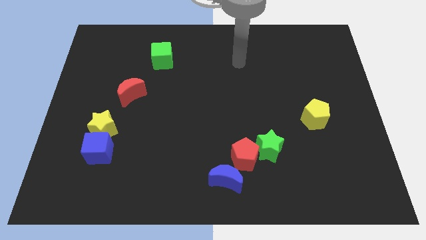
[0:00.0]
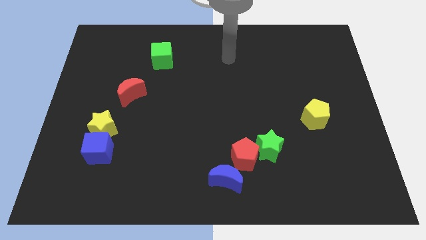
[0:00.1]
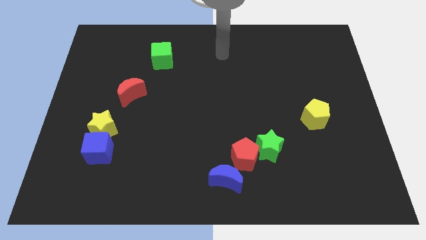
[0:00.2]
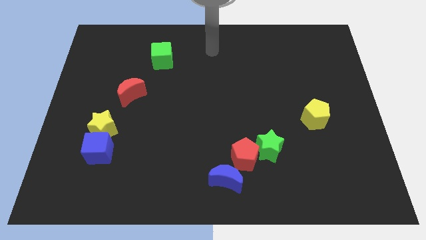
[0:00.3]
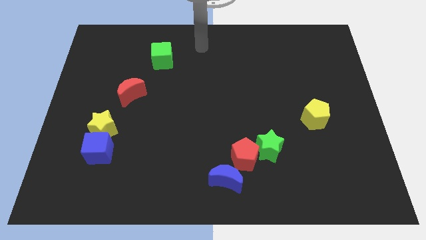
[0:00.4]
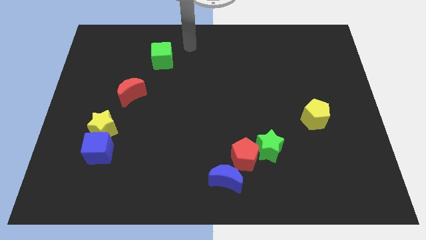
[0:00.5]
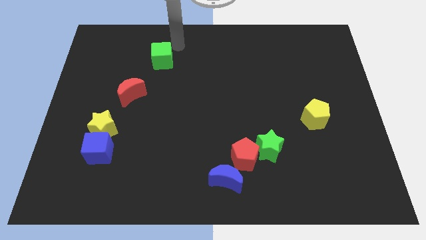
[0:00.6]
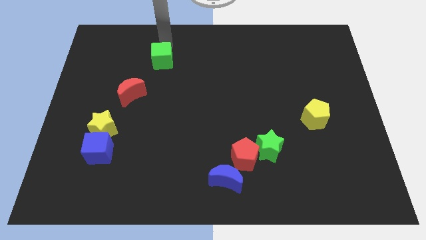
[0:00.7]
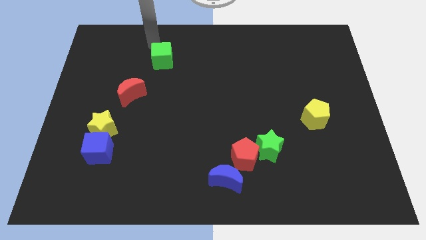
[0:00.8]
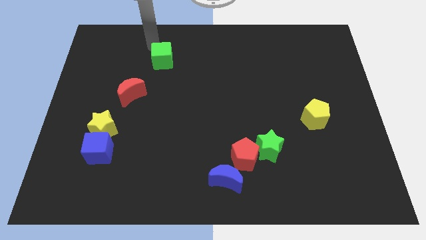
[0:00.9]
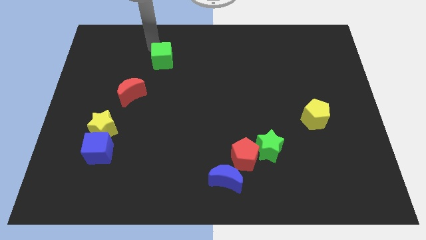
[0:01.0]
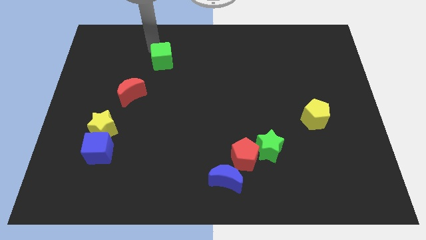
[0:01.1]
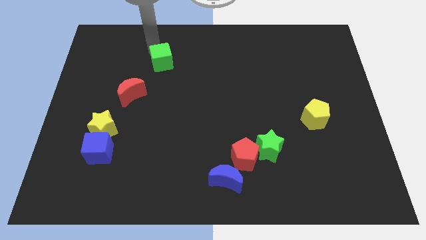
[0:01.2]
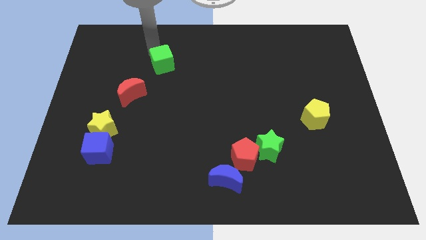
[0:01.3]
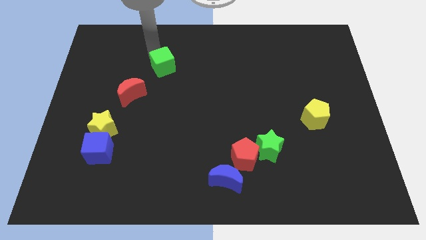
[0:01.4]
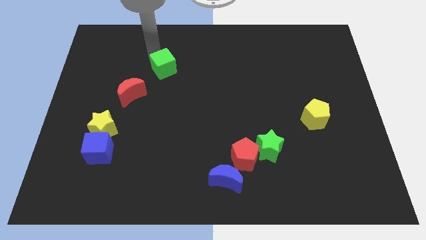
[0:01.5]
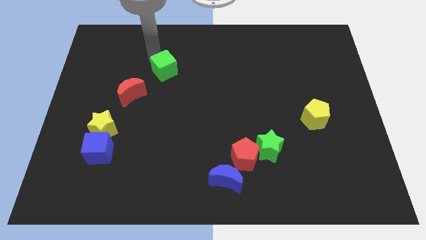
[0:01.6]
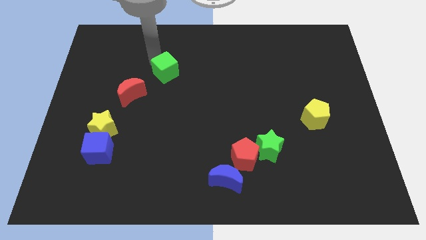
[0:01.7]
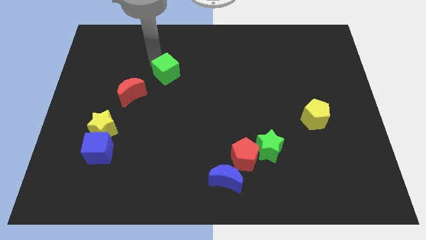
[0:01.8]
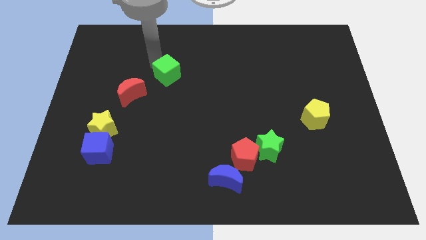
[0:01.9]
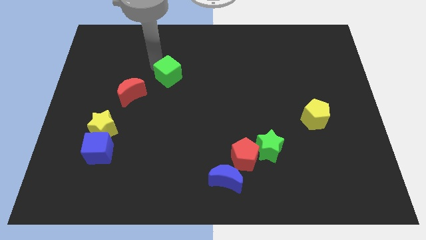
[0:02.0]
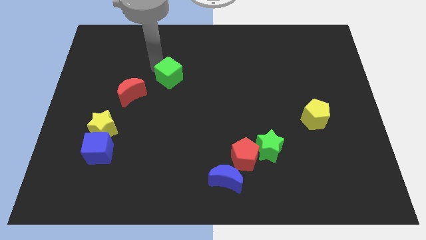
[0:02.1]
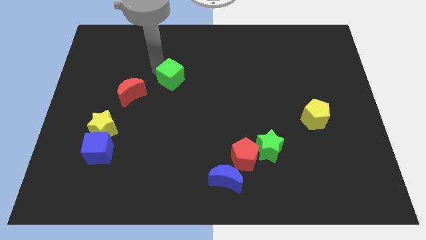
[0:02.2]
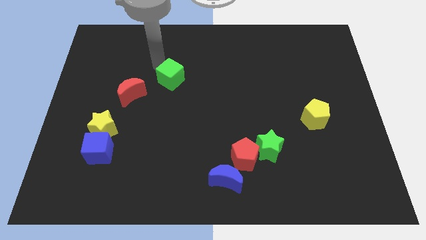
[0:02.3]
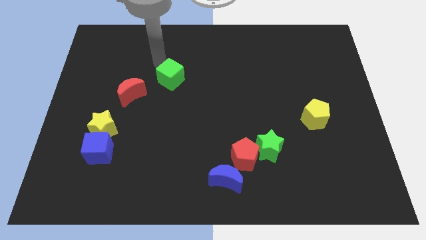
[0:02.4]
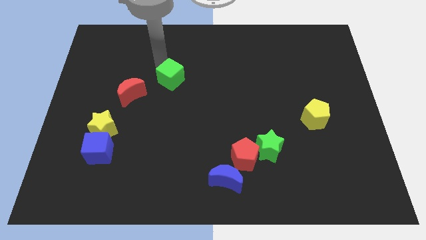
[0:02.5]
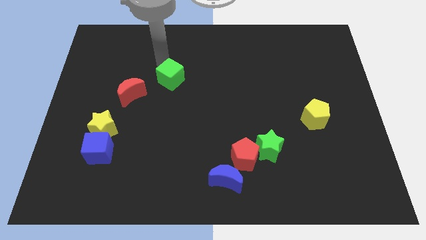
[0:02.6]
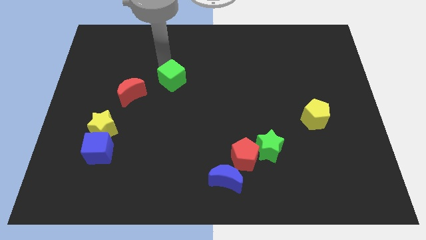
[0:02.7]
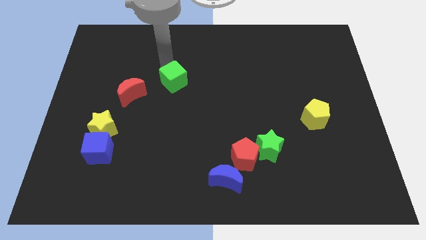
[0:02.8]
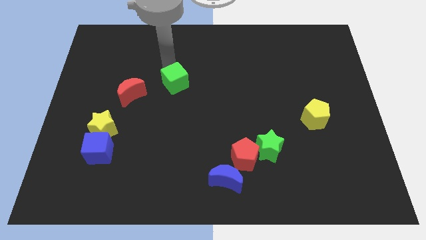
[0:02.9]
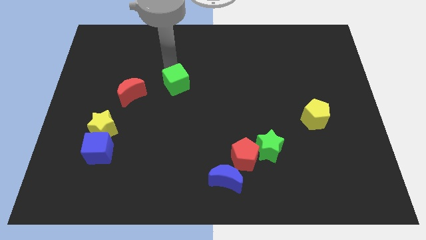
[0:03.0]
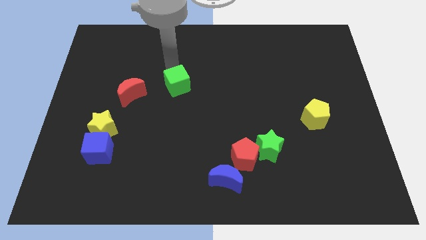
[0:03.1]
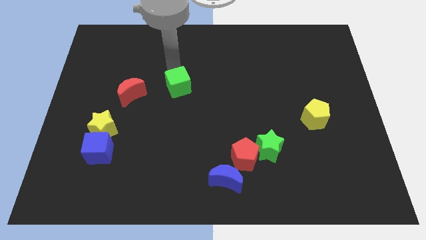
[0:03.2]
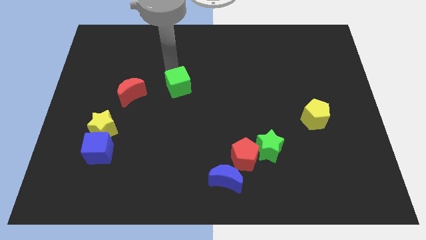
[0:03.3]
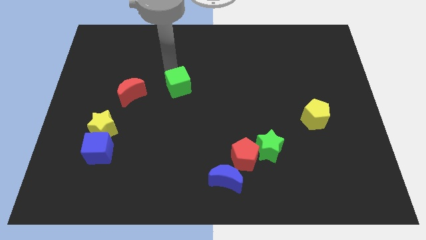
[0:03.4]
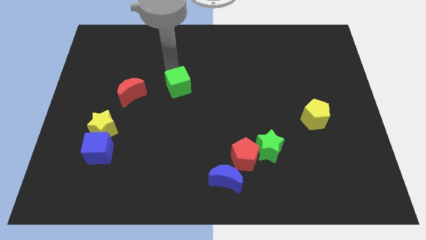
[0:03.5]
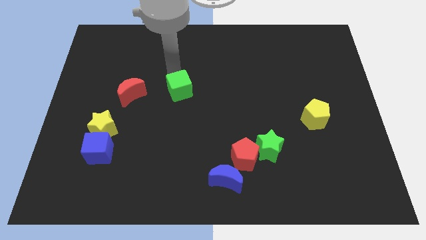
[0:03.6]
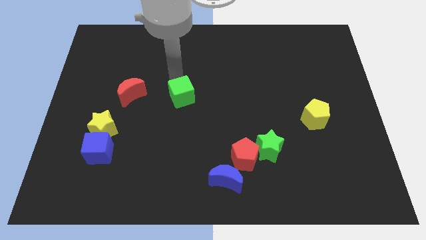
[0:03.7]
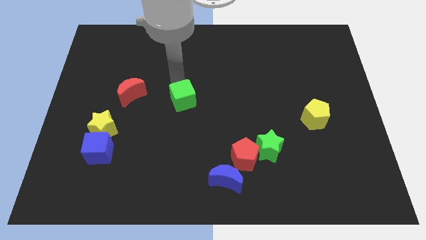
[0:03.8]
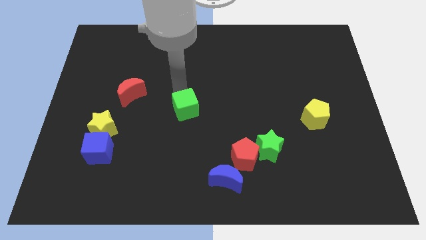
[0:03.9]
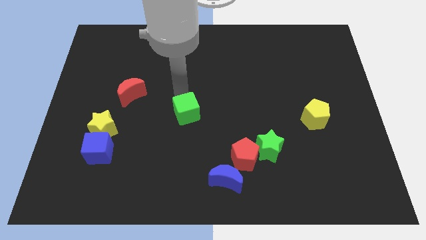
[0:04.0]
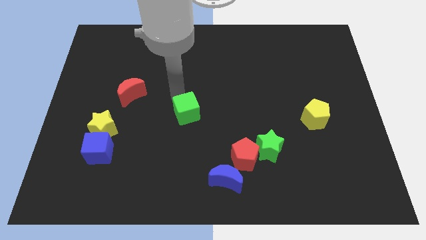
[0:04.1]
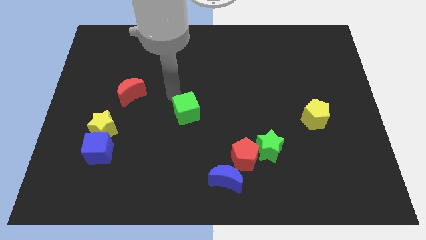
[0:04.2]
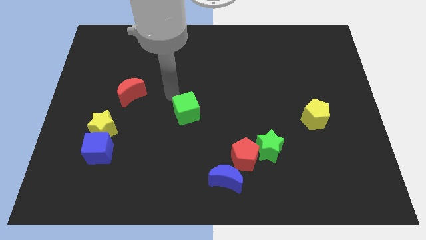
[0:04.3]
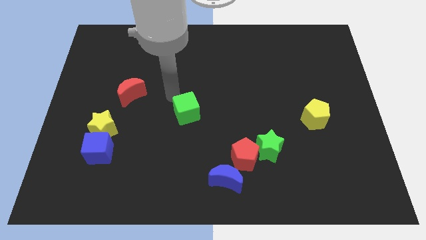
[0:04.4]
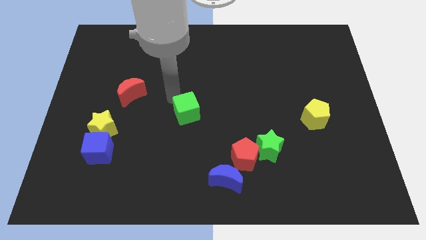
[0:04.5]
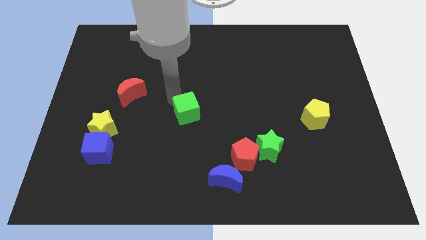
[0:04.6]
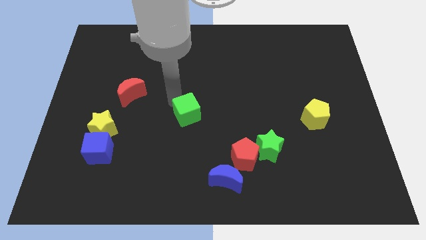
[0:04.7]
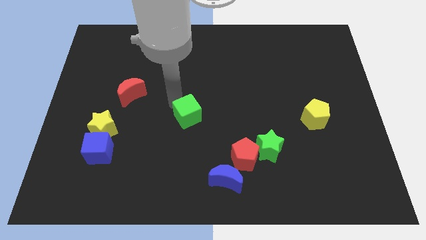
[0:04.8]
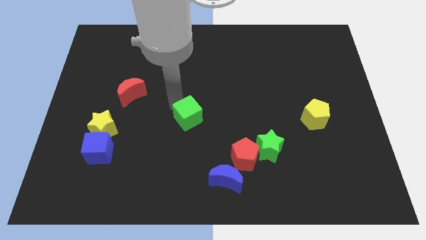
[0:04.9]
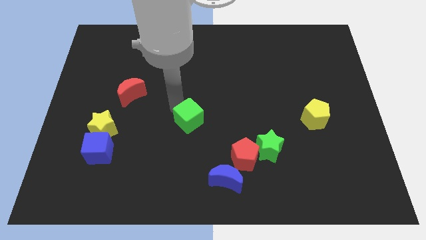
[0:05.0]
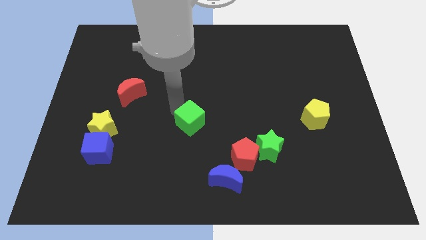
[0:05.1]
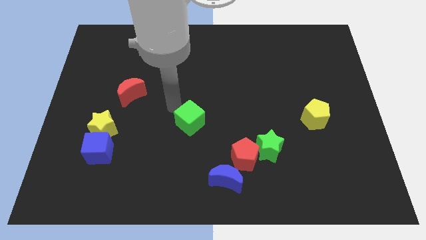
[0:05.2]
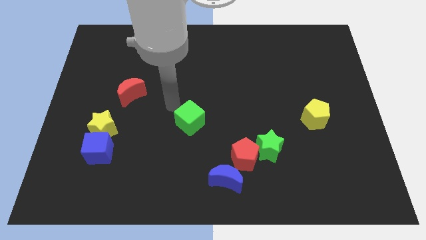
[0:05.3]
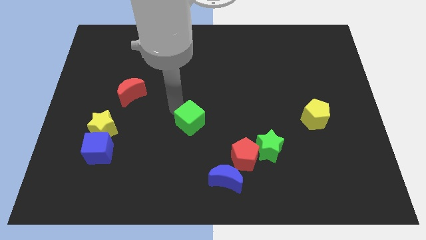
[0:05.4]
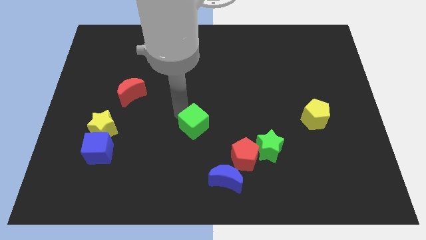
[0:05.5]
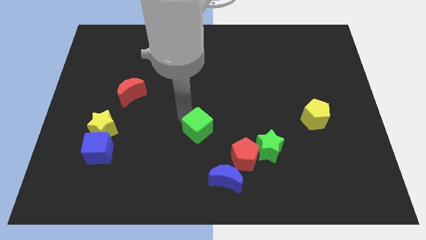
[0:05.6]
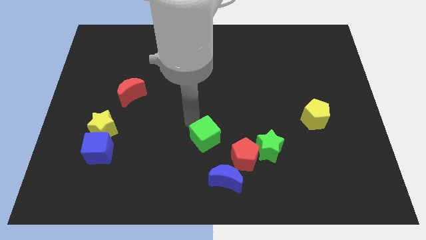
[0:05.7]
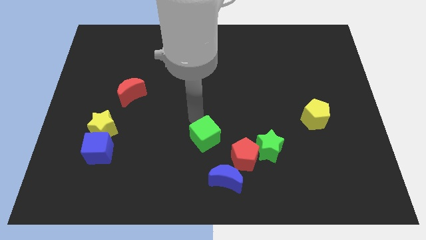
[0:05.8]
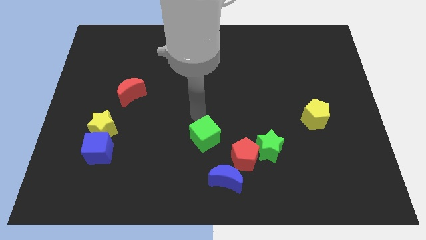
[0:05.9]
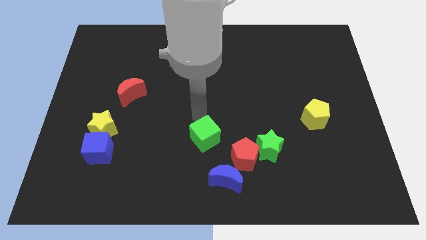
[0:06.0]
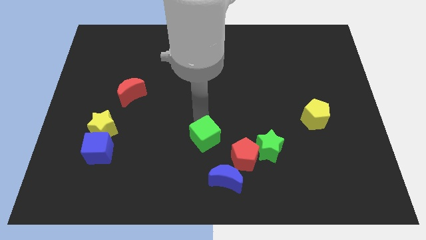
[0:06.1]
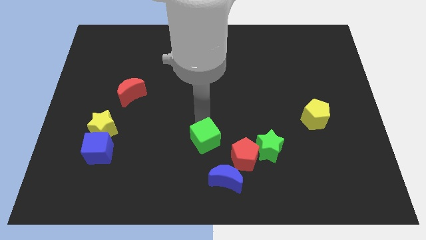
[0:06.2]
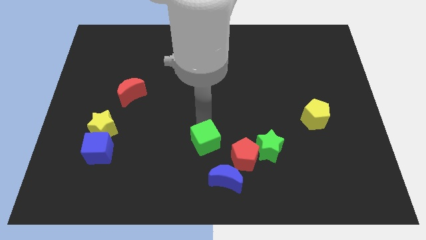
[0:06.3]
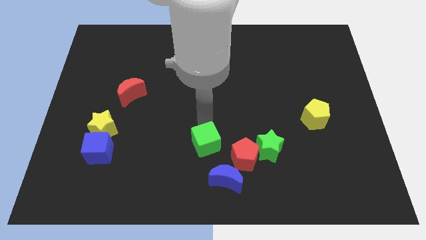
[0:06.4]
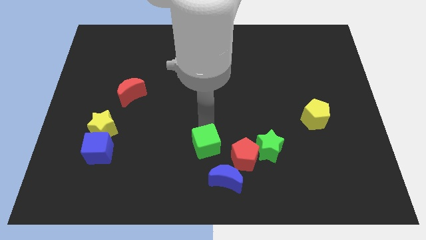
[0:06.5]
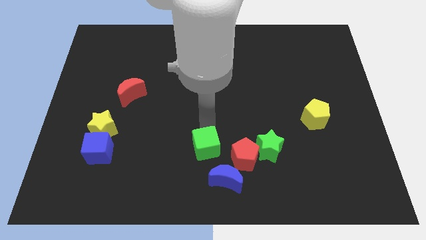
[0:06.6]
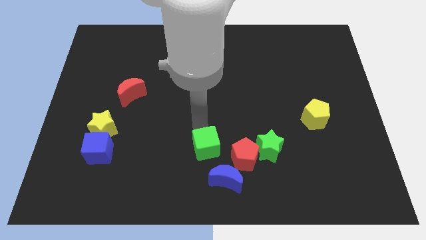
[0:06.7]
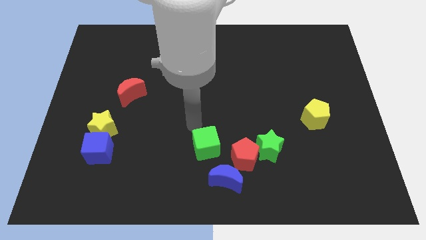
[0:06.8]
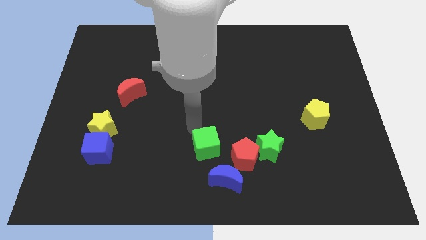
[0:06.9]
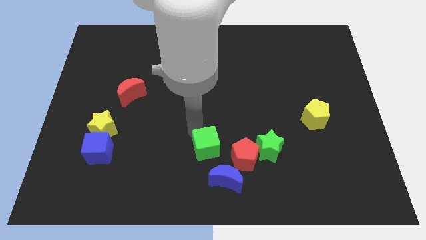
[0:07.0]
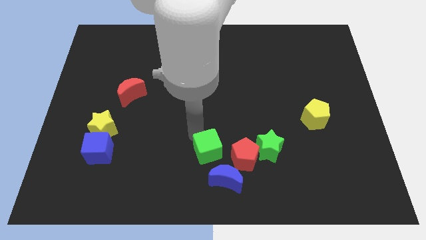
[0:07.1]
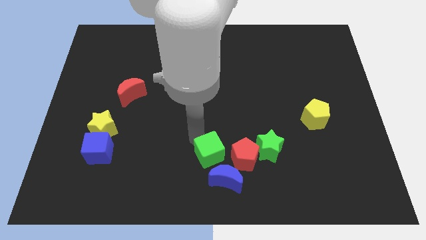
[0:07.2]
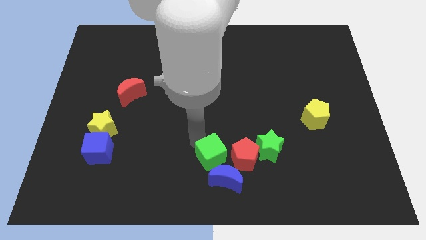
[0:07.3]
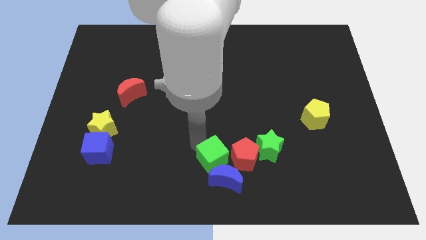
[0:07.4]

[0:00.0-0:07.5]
push the green cube next to the blue moon

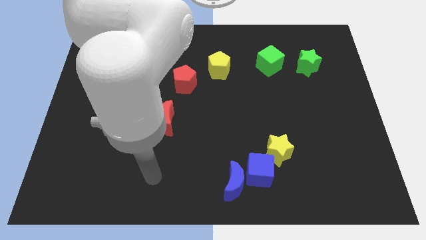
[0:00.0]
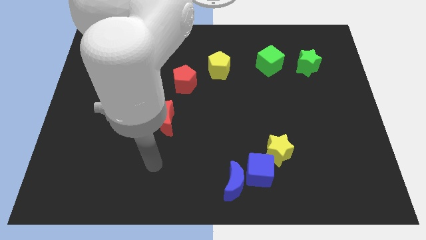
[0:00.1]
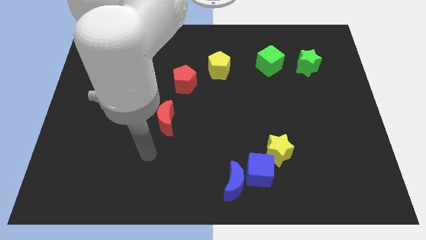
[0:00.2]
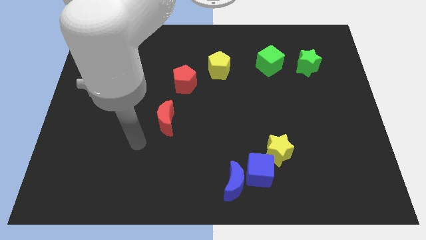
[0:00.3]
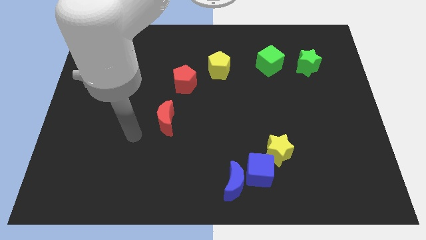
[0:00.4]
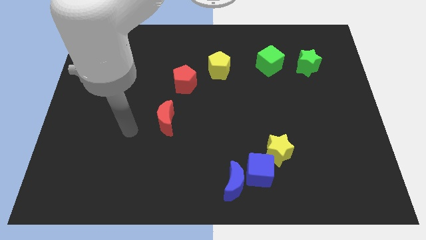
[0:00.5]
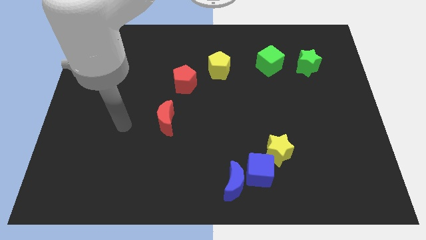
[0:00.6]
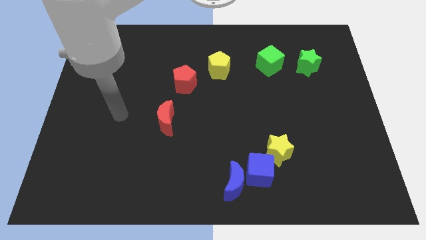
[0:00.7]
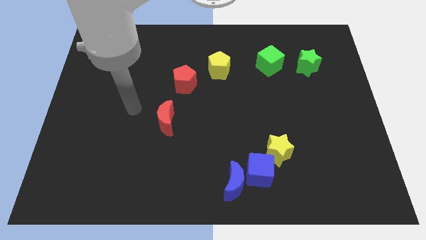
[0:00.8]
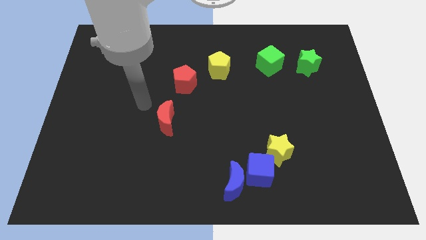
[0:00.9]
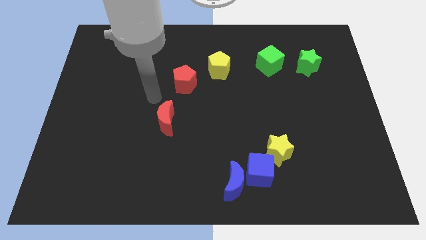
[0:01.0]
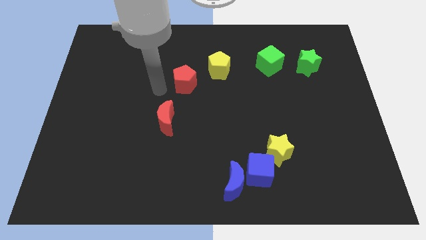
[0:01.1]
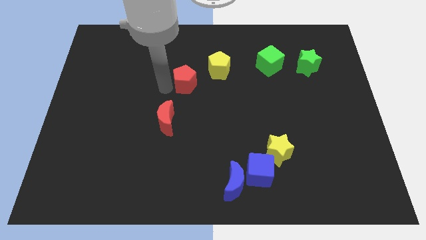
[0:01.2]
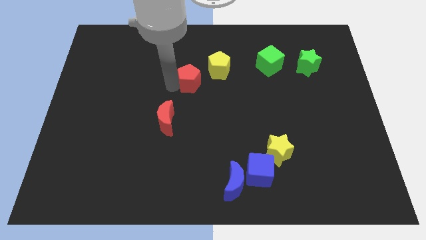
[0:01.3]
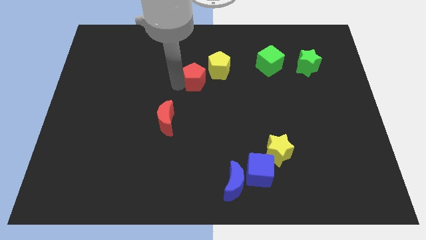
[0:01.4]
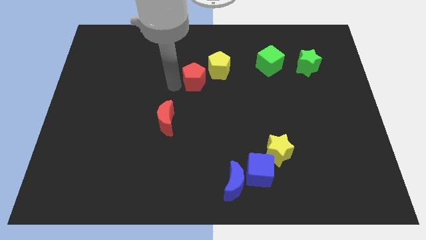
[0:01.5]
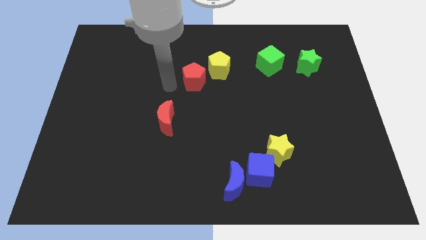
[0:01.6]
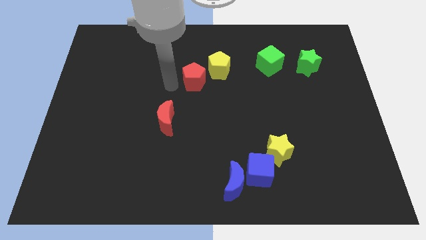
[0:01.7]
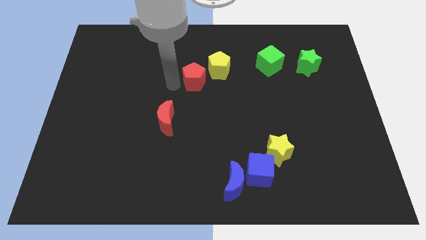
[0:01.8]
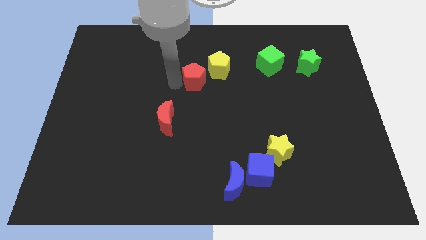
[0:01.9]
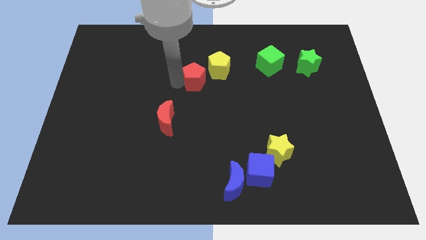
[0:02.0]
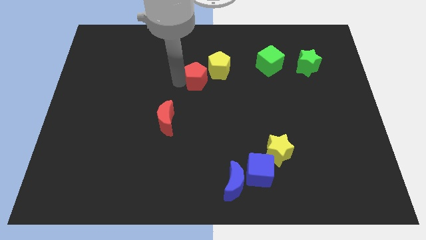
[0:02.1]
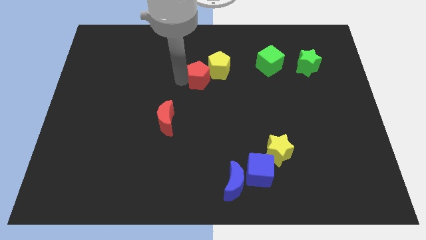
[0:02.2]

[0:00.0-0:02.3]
push the red pentagon close to the yellow pentagon
